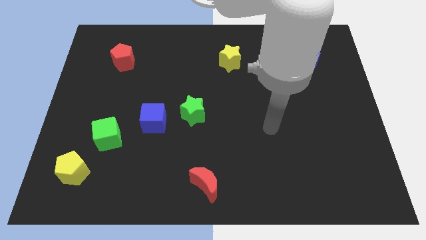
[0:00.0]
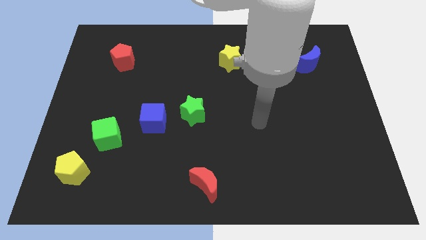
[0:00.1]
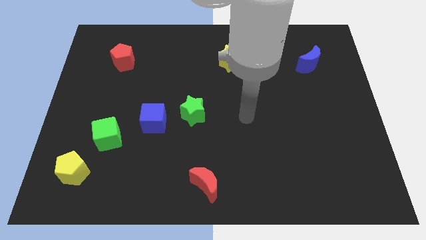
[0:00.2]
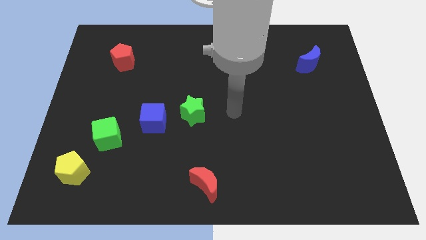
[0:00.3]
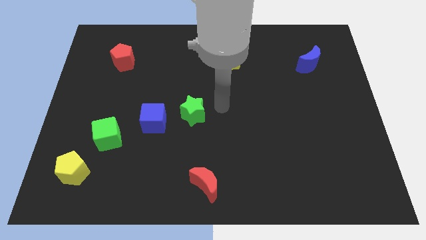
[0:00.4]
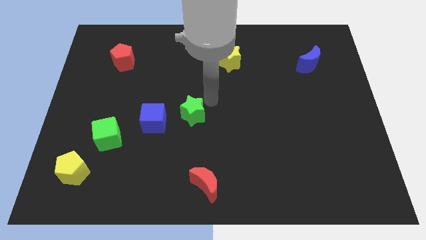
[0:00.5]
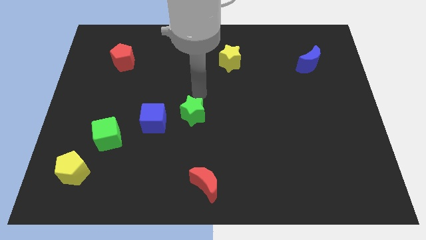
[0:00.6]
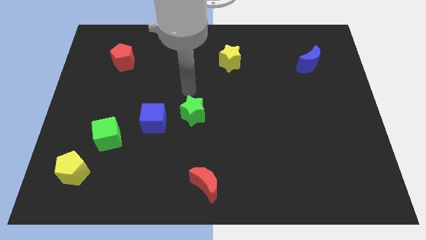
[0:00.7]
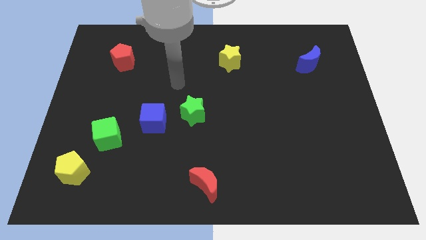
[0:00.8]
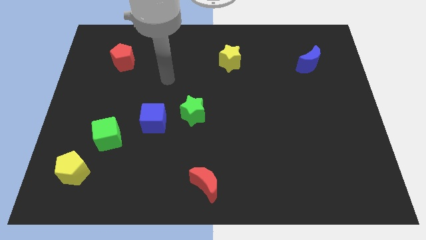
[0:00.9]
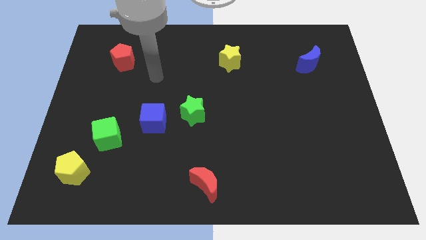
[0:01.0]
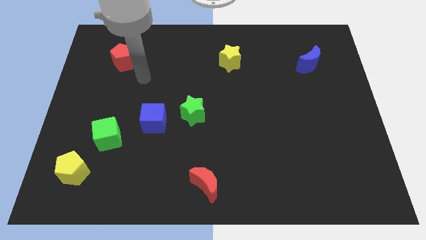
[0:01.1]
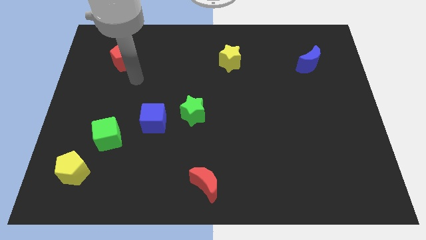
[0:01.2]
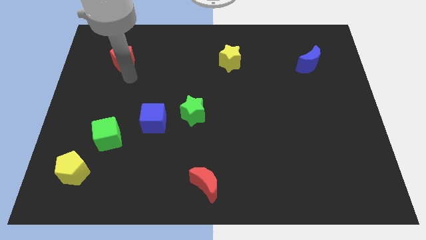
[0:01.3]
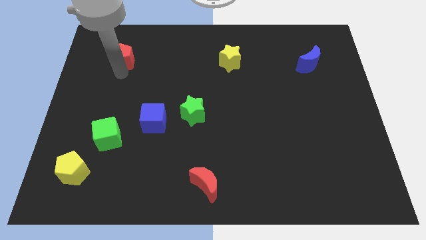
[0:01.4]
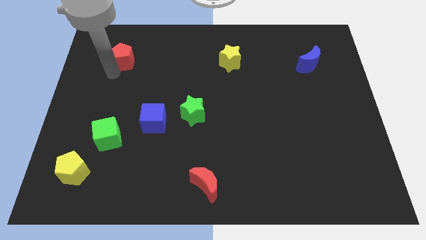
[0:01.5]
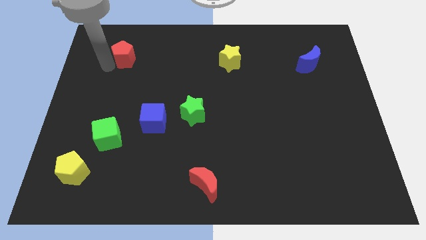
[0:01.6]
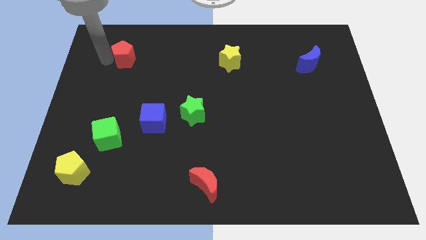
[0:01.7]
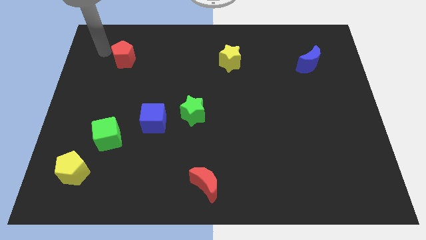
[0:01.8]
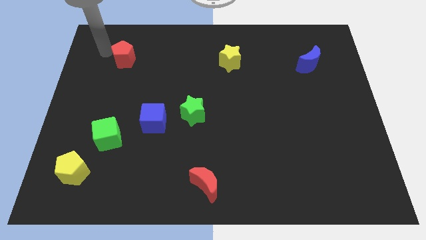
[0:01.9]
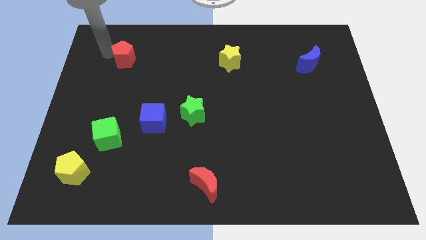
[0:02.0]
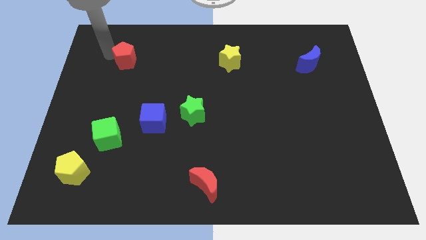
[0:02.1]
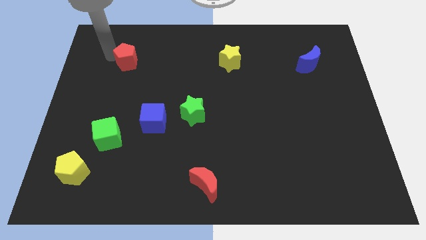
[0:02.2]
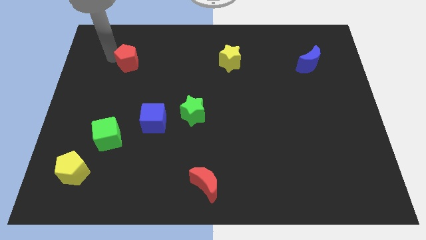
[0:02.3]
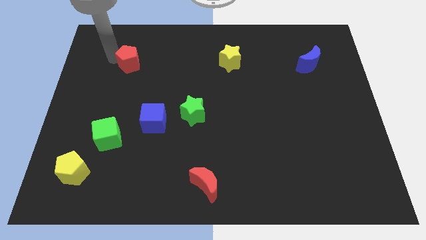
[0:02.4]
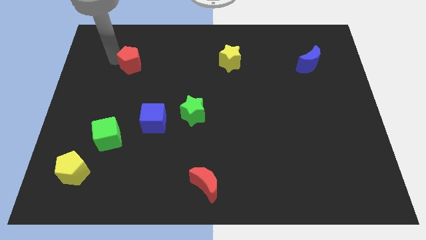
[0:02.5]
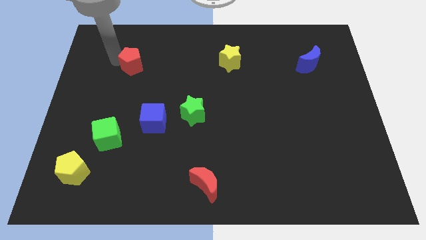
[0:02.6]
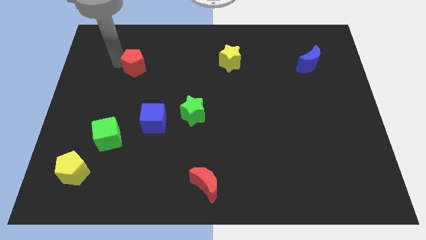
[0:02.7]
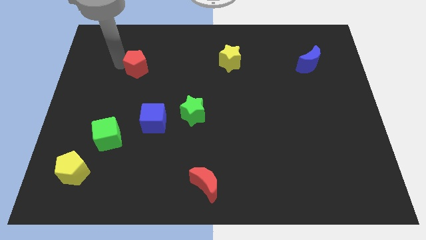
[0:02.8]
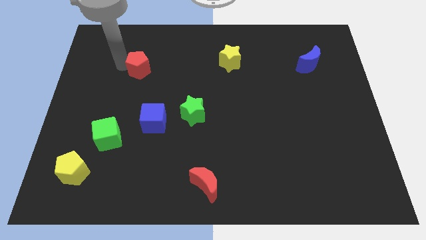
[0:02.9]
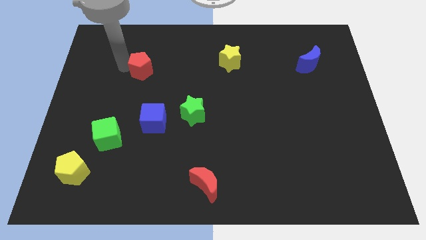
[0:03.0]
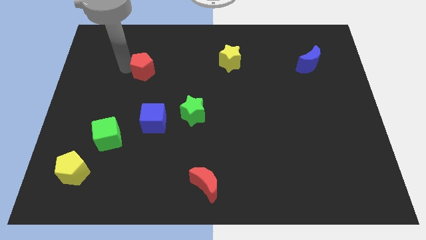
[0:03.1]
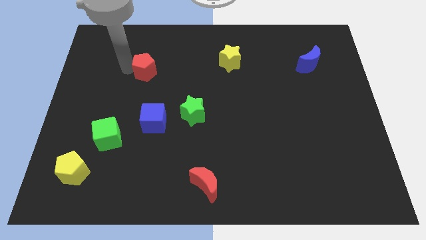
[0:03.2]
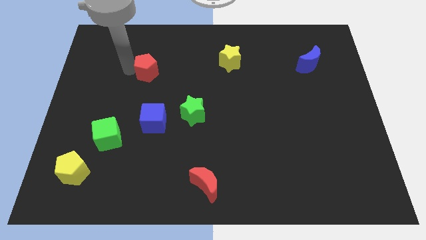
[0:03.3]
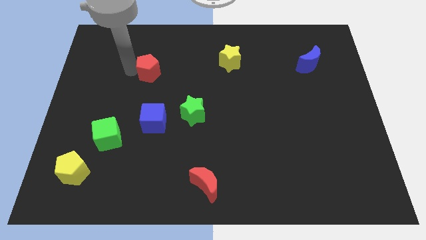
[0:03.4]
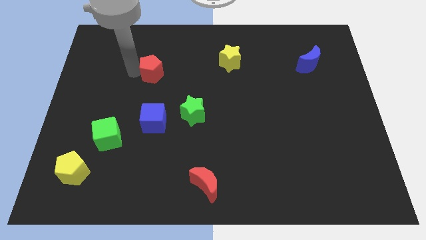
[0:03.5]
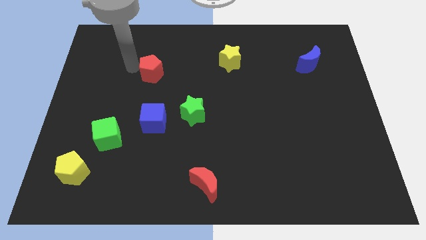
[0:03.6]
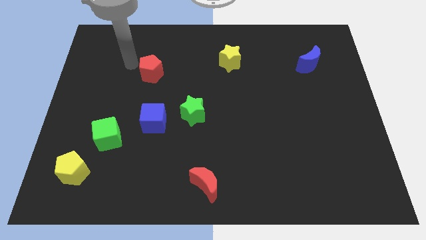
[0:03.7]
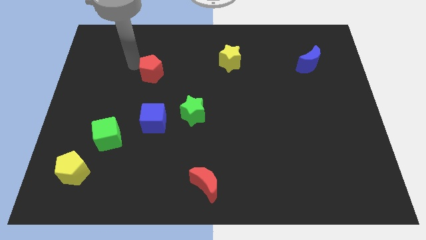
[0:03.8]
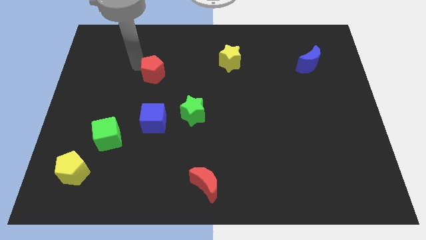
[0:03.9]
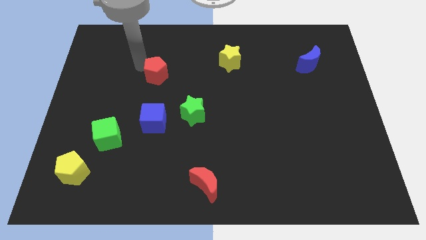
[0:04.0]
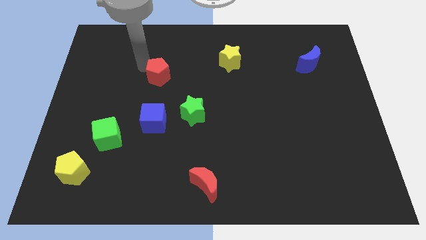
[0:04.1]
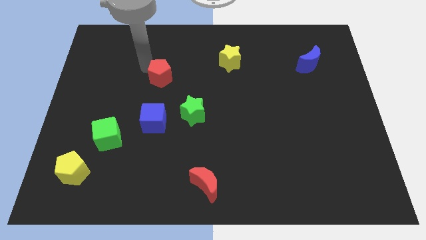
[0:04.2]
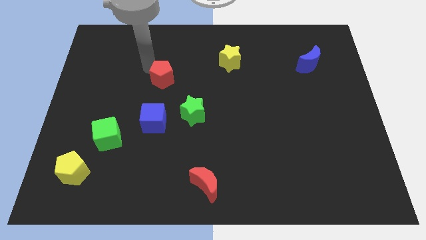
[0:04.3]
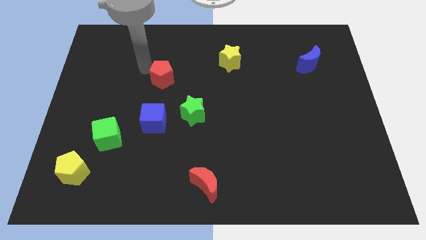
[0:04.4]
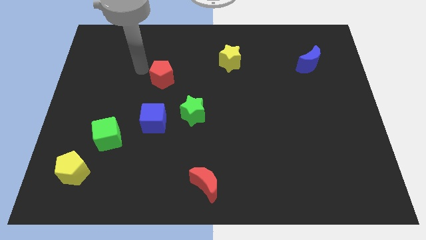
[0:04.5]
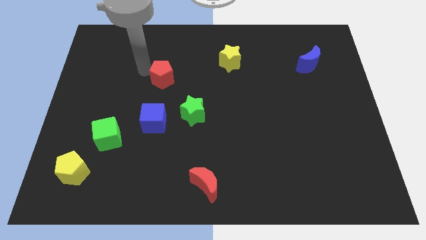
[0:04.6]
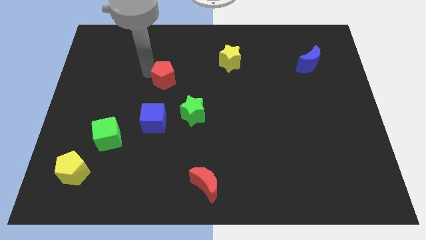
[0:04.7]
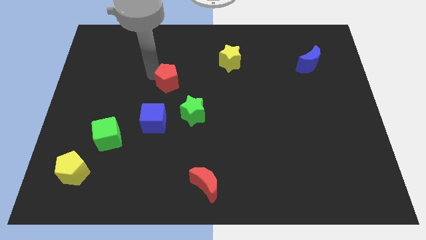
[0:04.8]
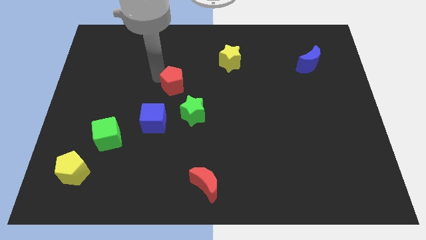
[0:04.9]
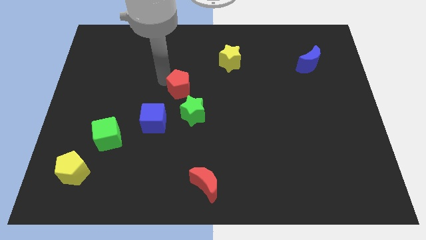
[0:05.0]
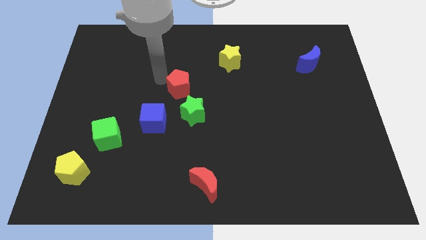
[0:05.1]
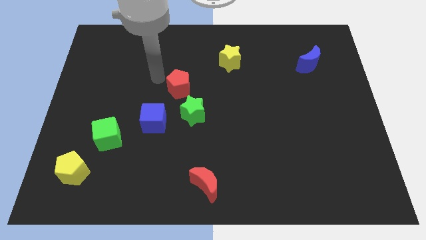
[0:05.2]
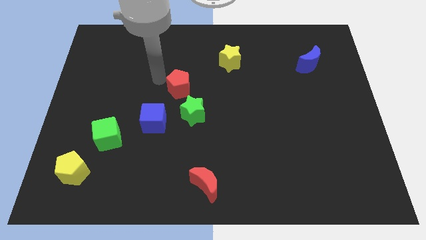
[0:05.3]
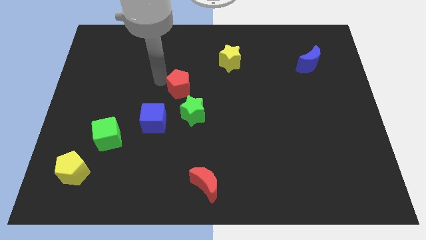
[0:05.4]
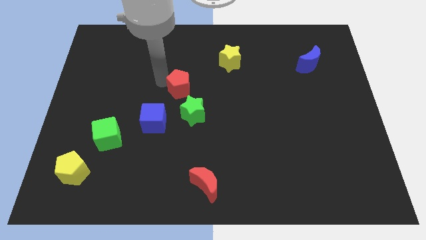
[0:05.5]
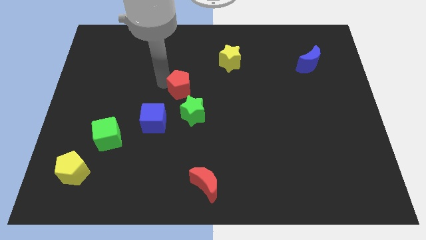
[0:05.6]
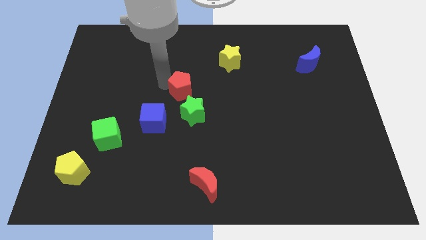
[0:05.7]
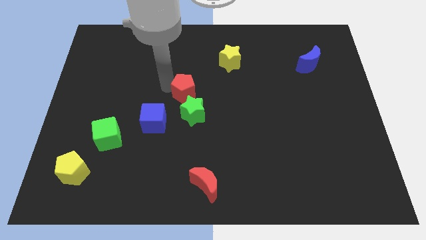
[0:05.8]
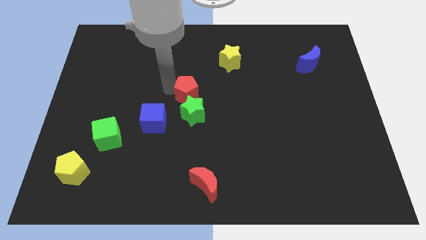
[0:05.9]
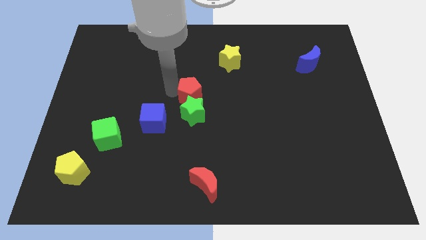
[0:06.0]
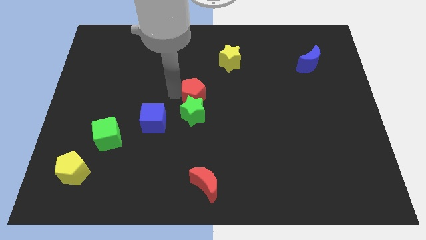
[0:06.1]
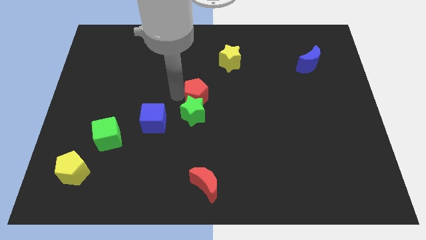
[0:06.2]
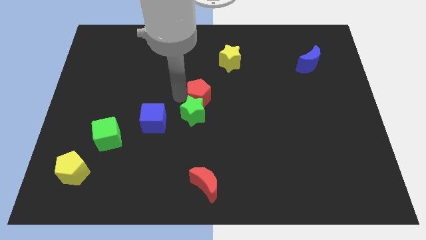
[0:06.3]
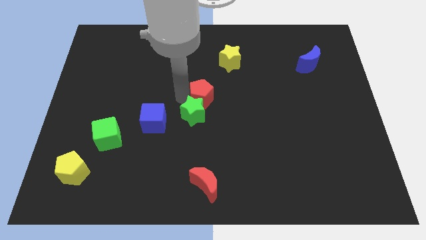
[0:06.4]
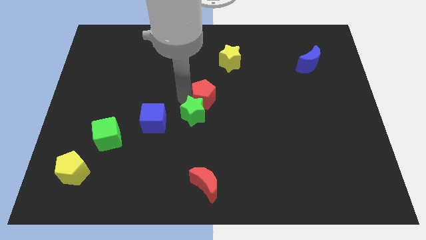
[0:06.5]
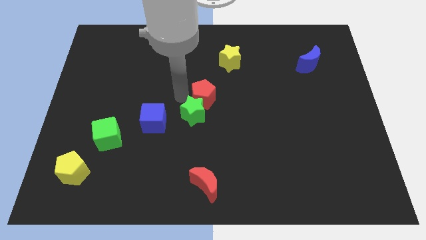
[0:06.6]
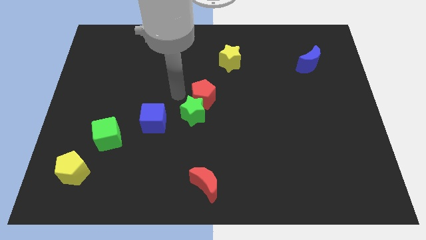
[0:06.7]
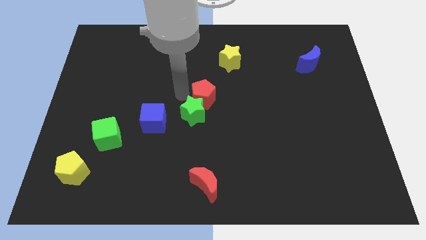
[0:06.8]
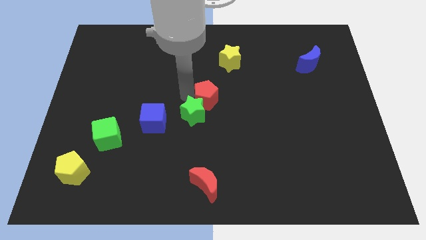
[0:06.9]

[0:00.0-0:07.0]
move the red pentagon to the right side of the green star

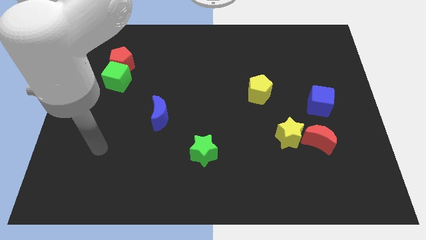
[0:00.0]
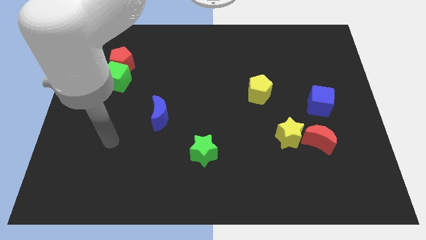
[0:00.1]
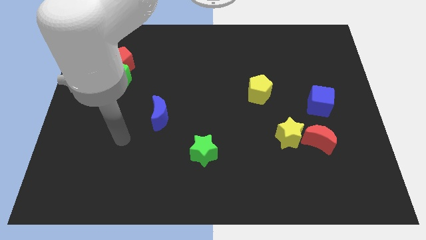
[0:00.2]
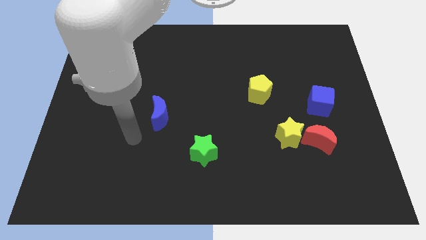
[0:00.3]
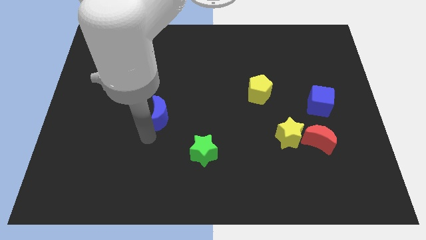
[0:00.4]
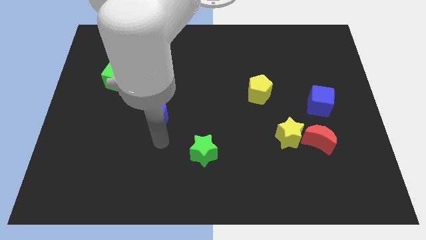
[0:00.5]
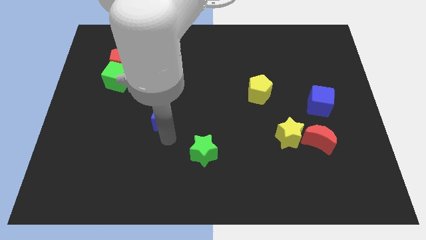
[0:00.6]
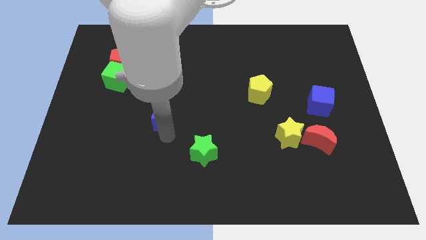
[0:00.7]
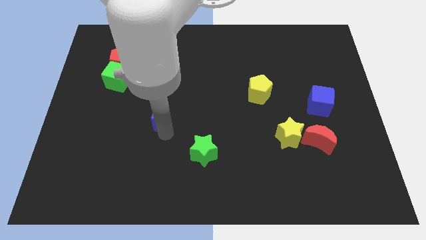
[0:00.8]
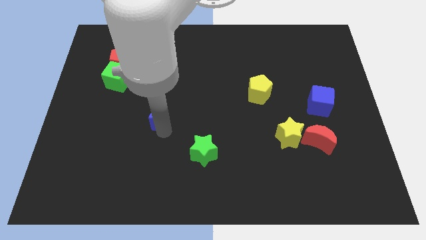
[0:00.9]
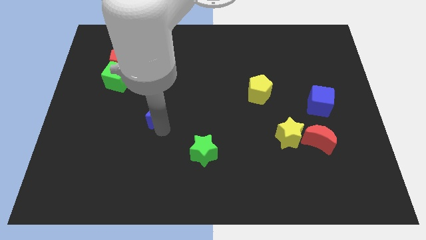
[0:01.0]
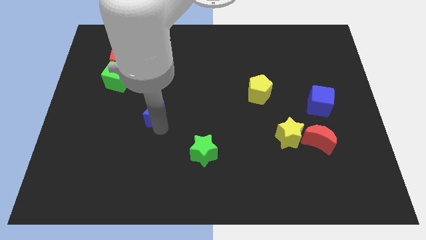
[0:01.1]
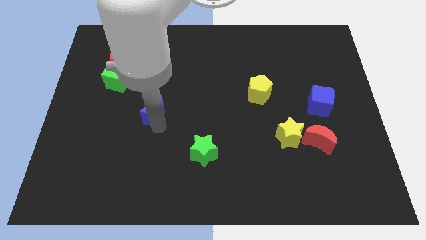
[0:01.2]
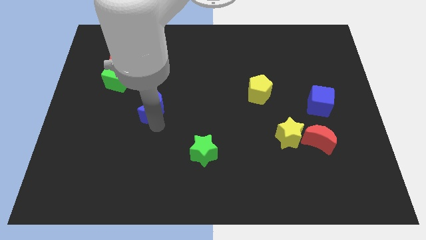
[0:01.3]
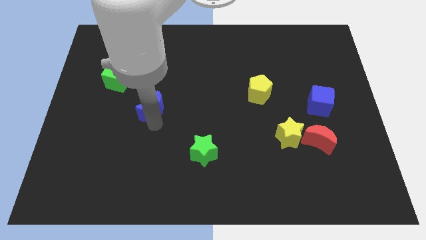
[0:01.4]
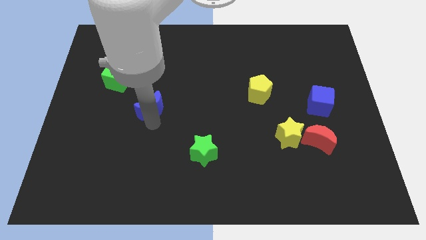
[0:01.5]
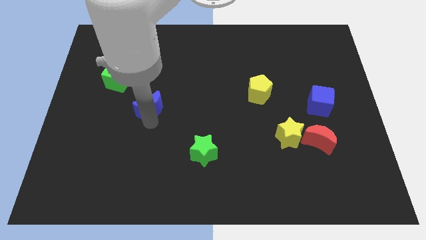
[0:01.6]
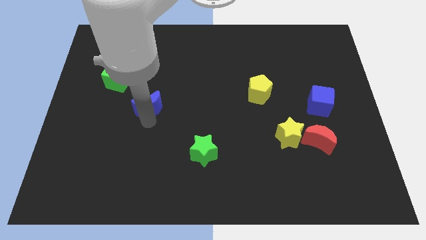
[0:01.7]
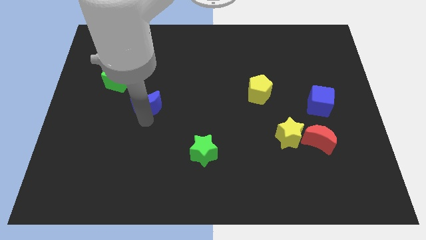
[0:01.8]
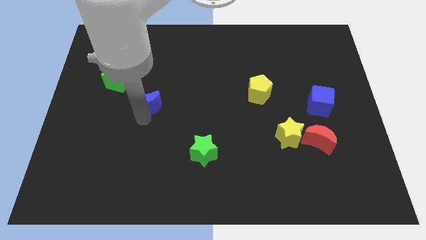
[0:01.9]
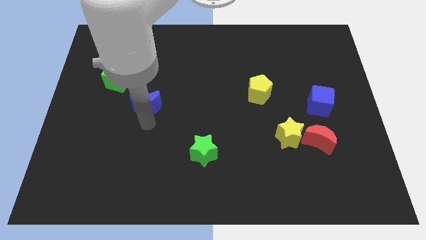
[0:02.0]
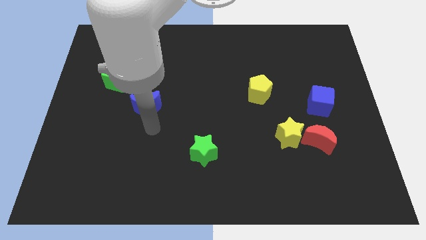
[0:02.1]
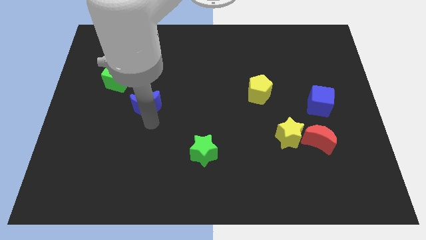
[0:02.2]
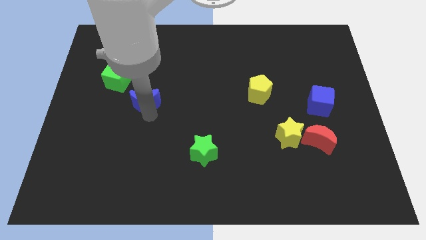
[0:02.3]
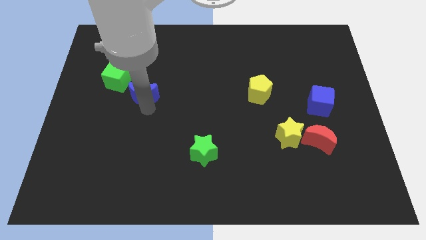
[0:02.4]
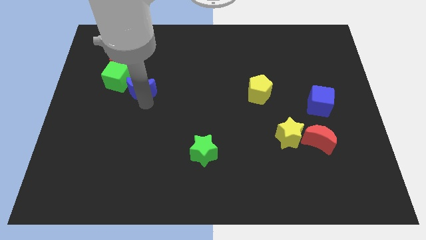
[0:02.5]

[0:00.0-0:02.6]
push the blue moon to the bottom right of the red pentagon
